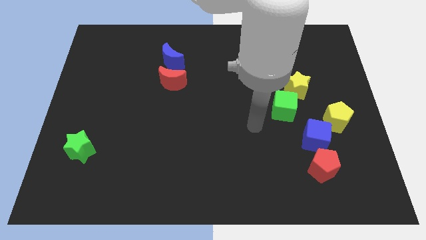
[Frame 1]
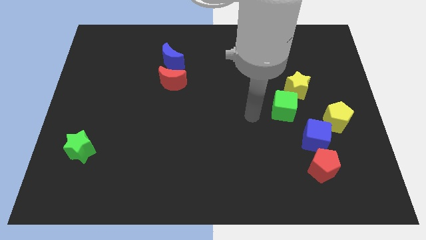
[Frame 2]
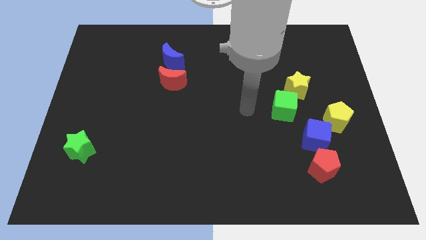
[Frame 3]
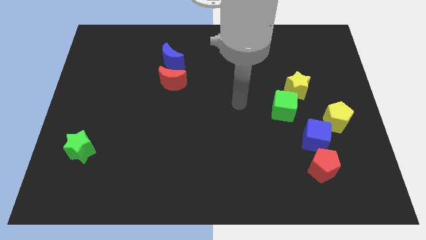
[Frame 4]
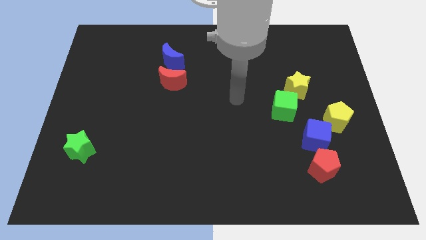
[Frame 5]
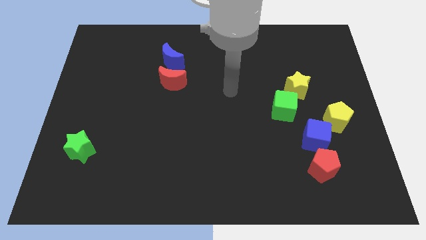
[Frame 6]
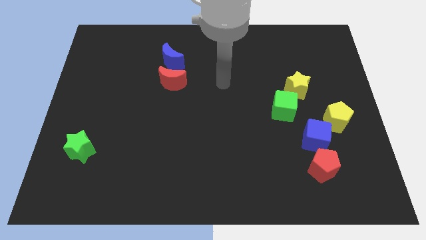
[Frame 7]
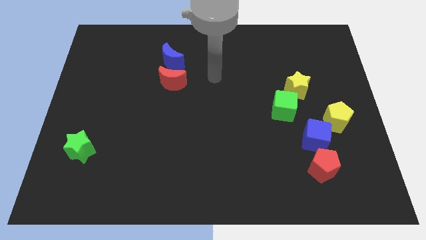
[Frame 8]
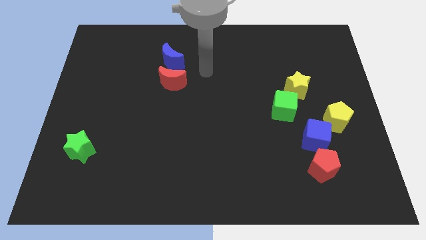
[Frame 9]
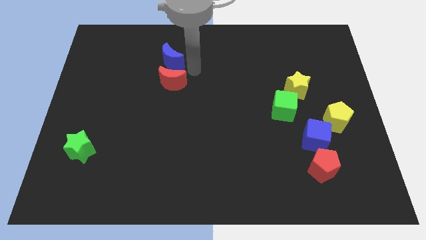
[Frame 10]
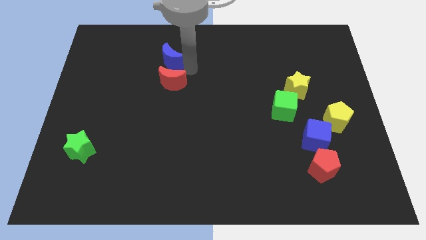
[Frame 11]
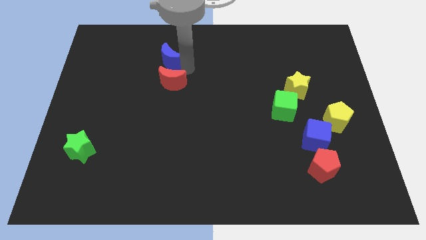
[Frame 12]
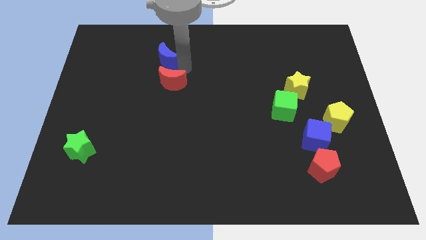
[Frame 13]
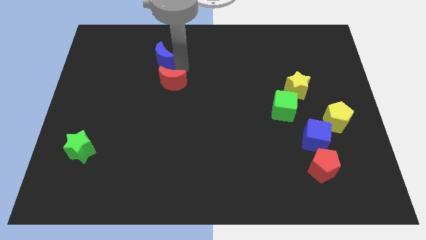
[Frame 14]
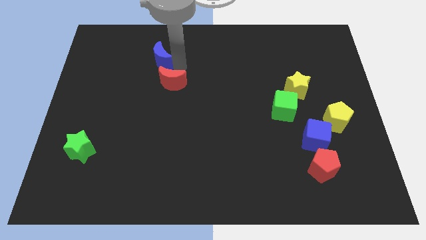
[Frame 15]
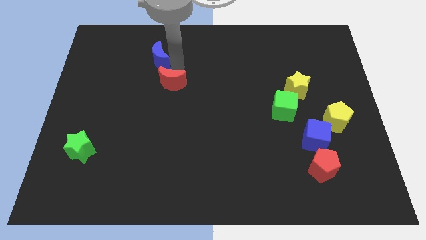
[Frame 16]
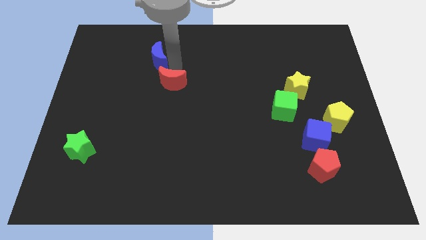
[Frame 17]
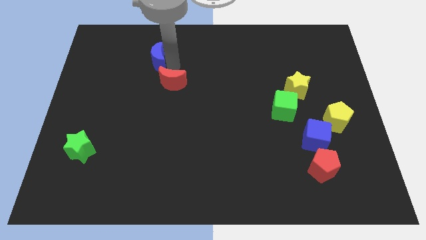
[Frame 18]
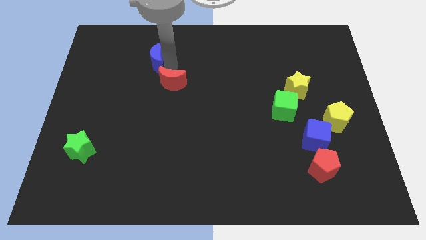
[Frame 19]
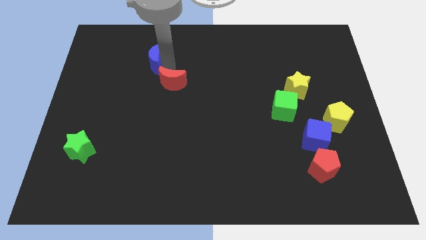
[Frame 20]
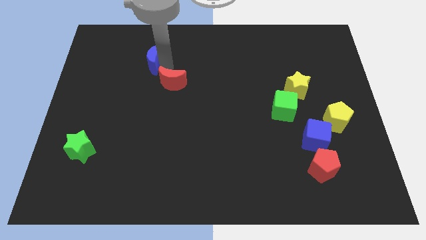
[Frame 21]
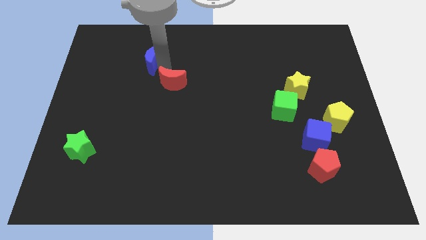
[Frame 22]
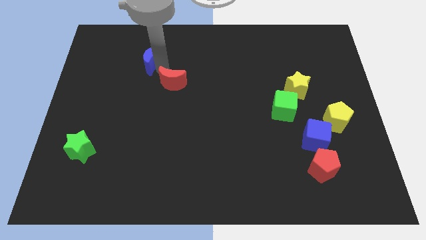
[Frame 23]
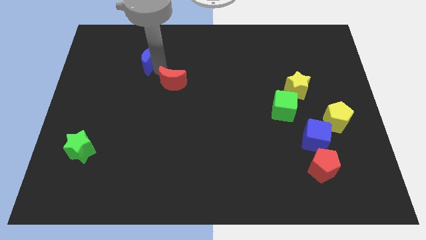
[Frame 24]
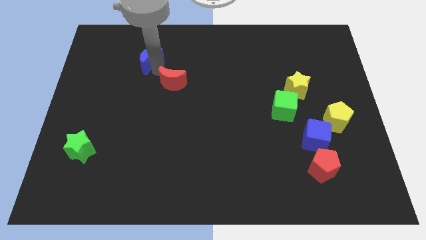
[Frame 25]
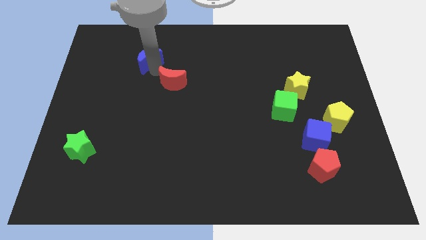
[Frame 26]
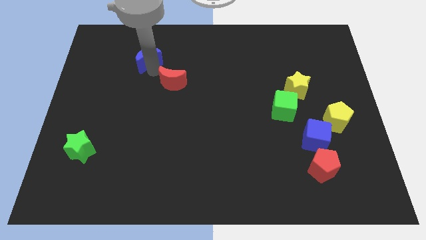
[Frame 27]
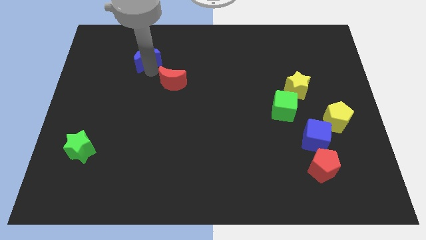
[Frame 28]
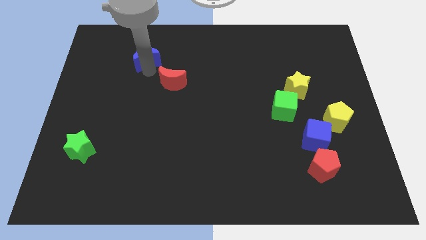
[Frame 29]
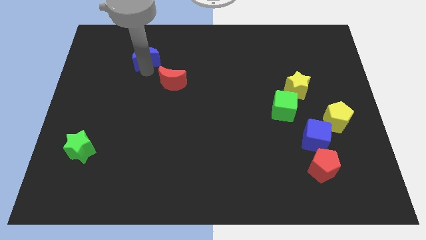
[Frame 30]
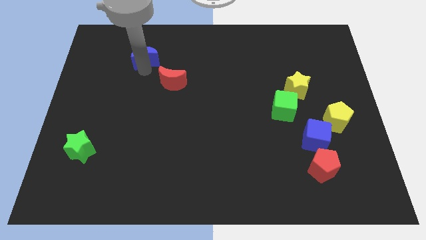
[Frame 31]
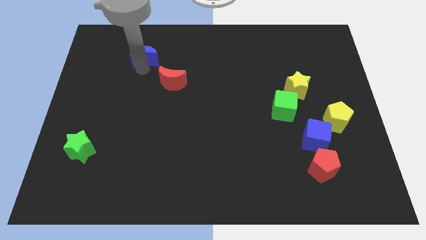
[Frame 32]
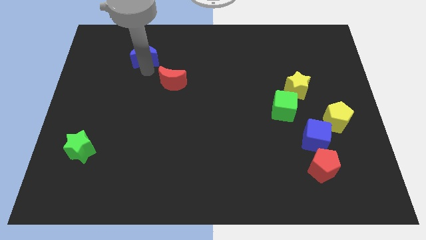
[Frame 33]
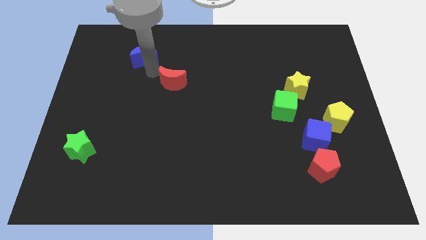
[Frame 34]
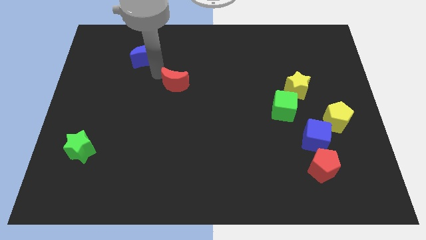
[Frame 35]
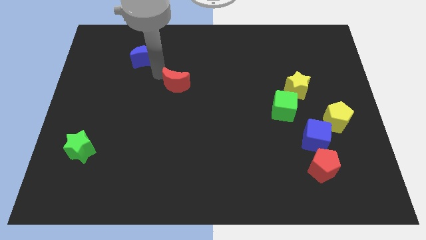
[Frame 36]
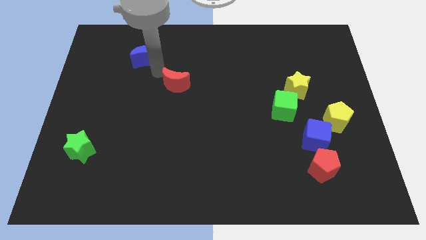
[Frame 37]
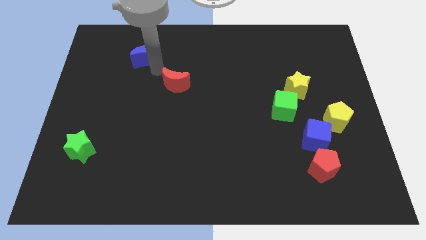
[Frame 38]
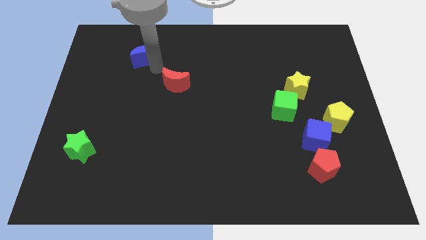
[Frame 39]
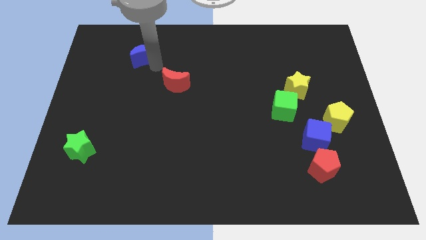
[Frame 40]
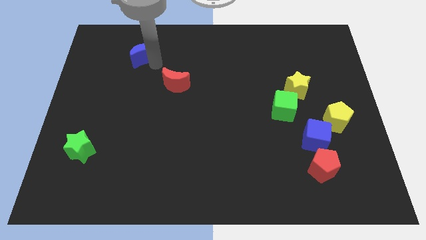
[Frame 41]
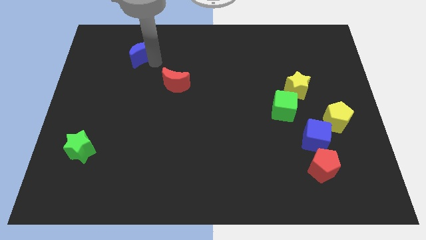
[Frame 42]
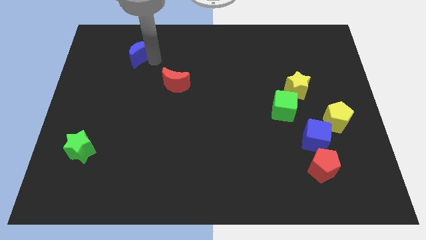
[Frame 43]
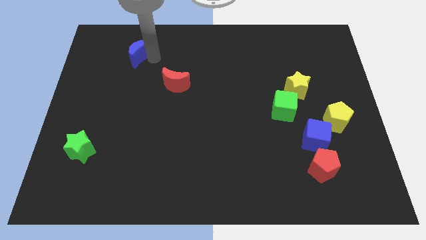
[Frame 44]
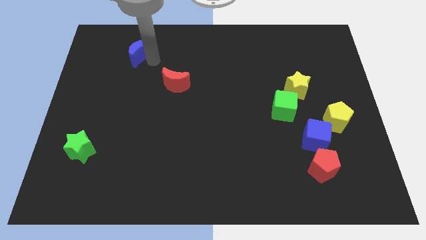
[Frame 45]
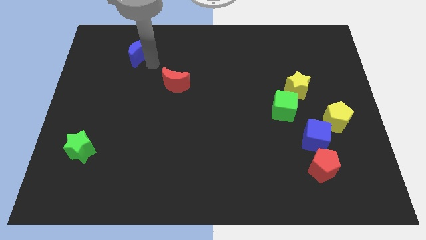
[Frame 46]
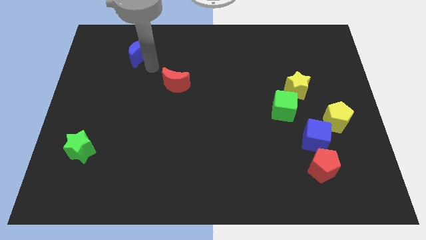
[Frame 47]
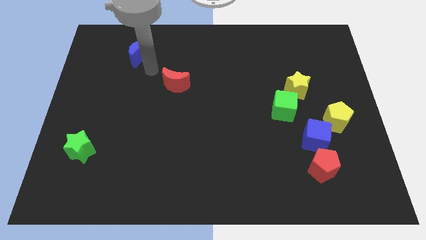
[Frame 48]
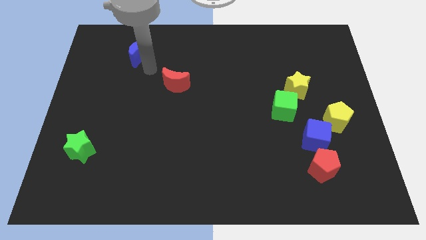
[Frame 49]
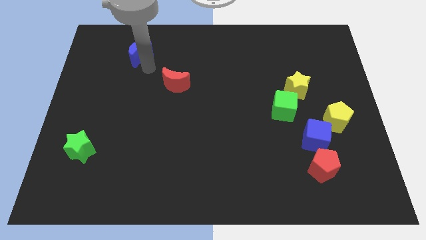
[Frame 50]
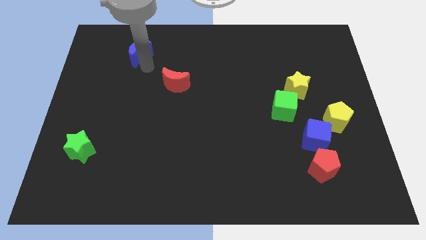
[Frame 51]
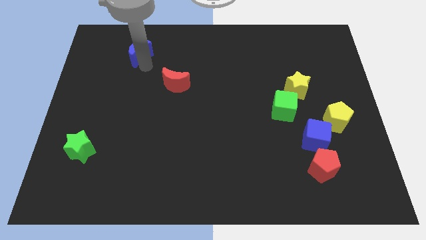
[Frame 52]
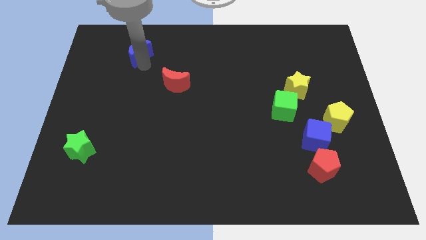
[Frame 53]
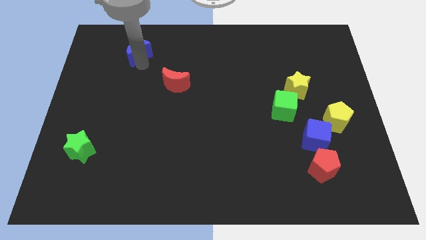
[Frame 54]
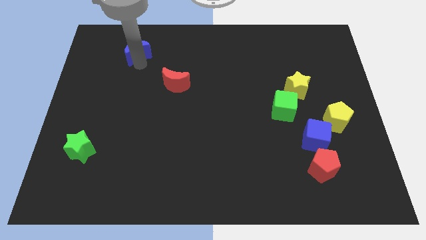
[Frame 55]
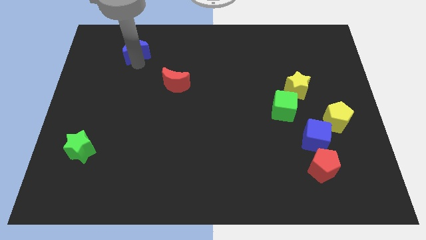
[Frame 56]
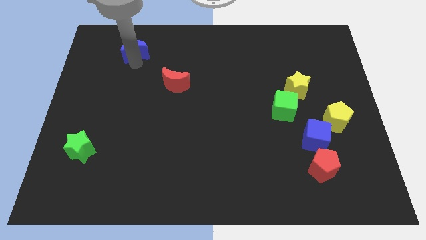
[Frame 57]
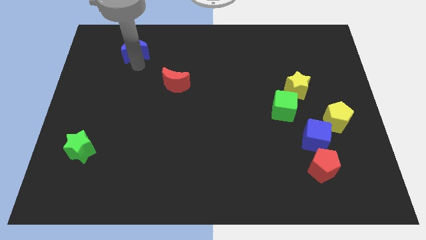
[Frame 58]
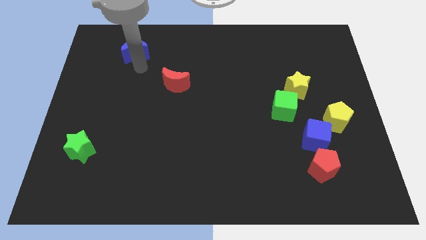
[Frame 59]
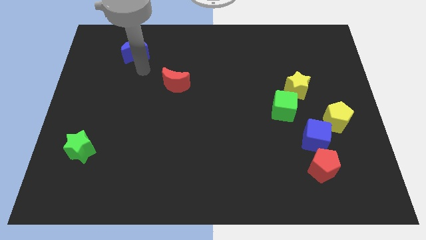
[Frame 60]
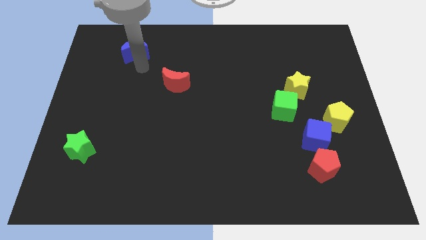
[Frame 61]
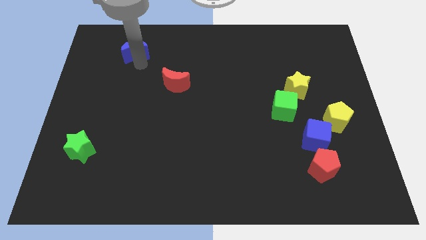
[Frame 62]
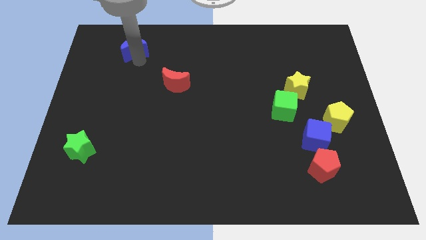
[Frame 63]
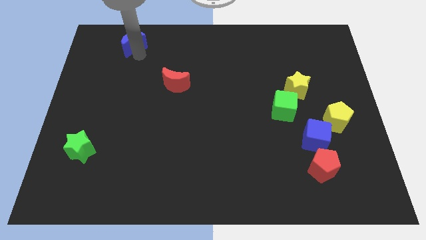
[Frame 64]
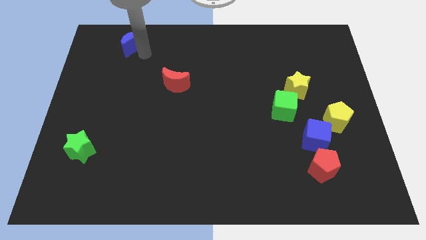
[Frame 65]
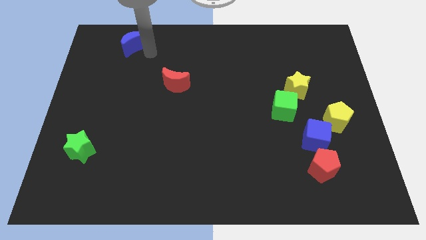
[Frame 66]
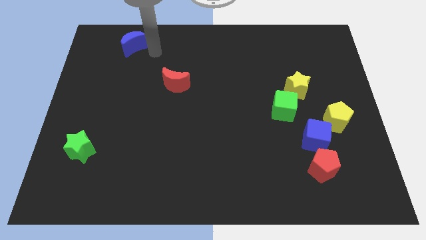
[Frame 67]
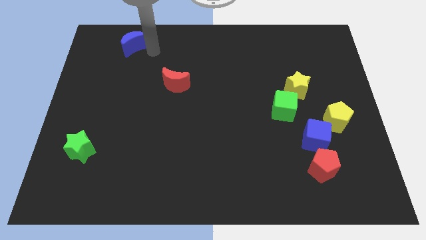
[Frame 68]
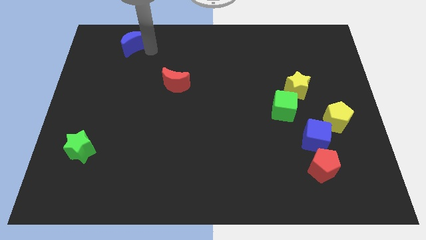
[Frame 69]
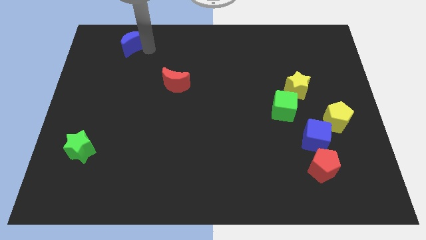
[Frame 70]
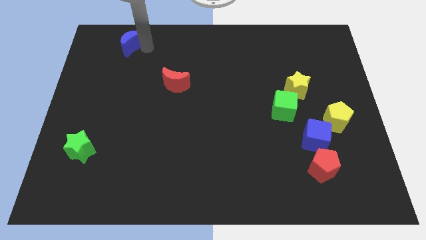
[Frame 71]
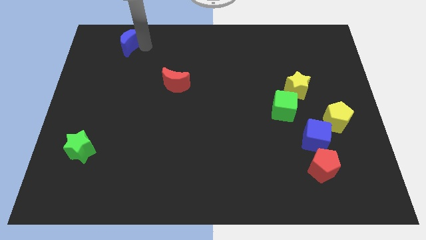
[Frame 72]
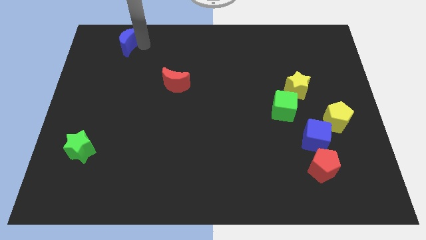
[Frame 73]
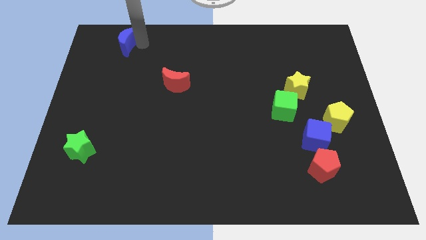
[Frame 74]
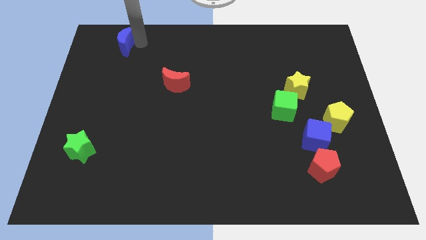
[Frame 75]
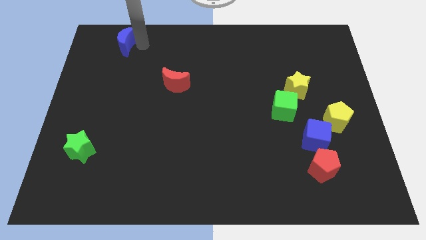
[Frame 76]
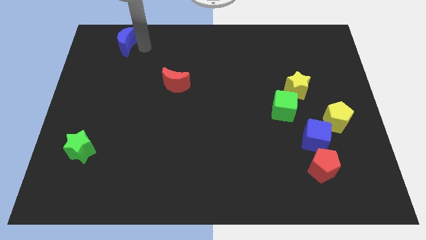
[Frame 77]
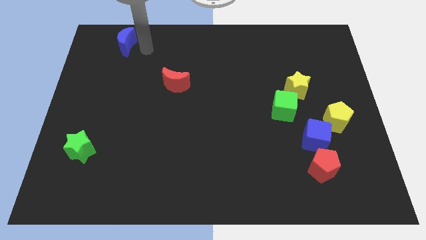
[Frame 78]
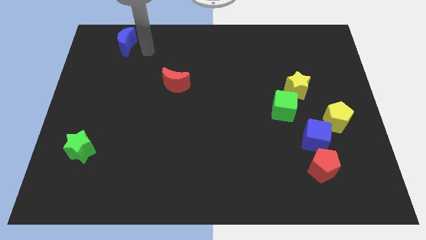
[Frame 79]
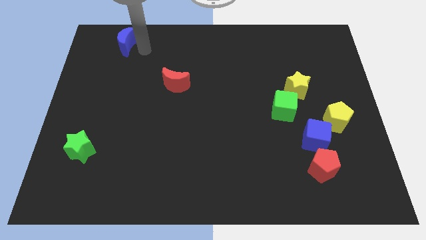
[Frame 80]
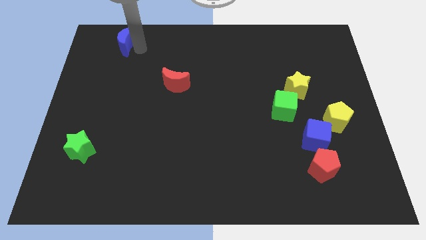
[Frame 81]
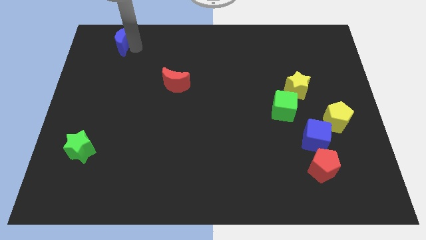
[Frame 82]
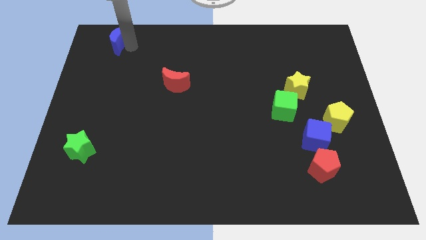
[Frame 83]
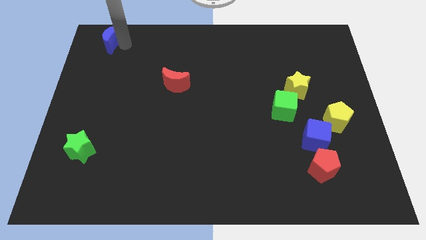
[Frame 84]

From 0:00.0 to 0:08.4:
put the blue moon to the top left corner
